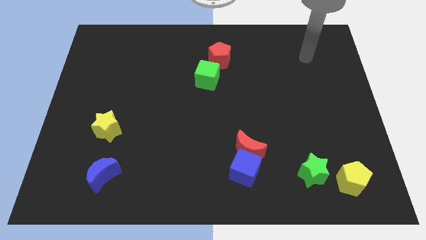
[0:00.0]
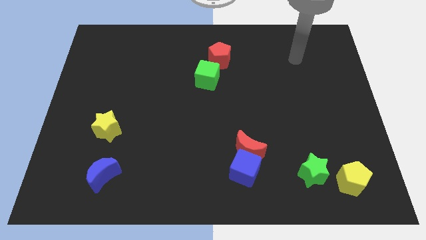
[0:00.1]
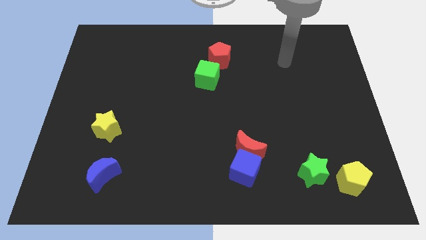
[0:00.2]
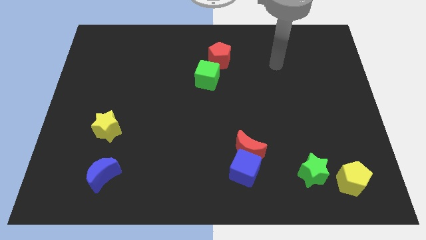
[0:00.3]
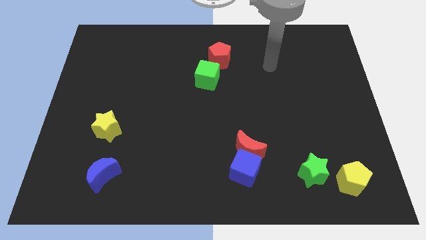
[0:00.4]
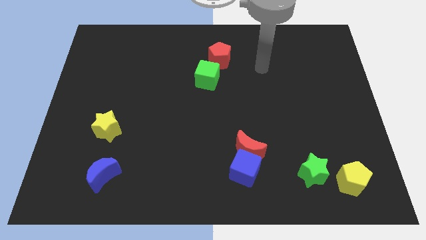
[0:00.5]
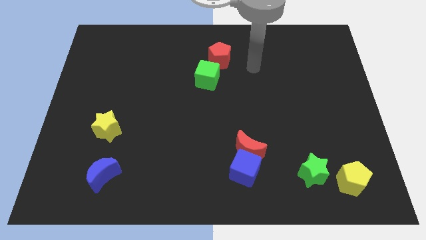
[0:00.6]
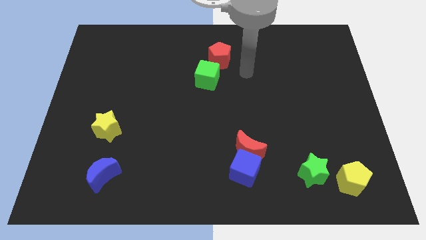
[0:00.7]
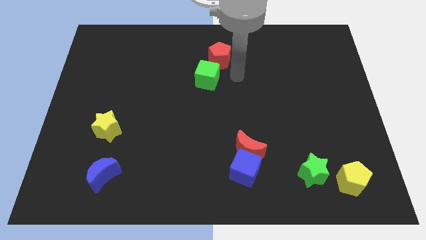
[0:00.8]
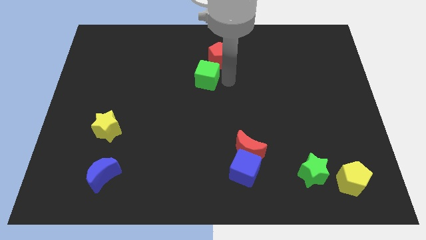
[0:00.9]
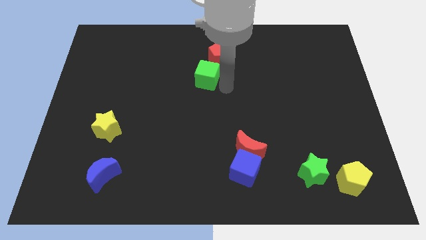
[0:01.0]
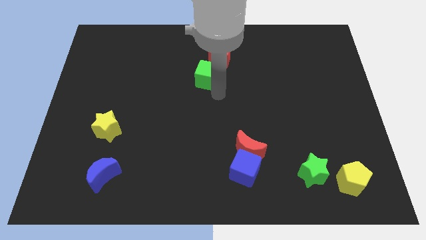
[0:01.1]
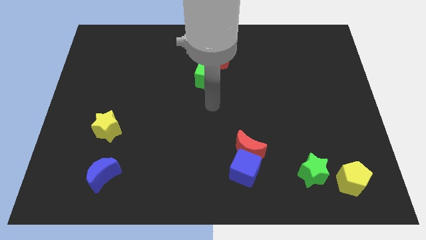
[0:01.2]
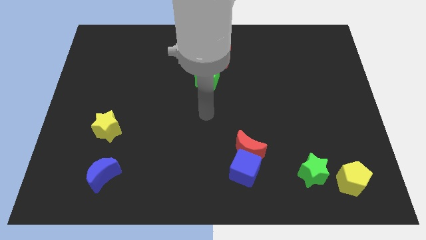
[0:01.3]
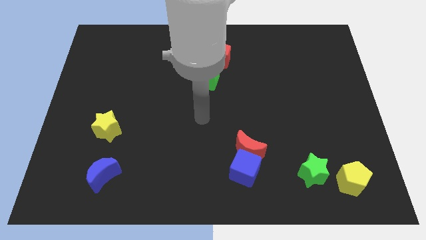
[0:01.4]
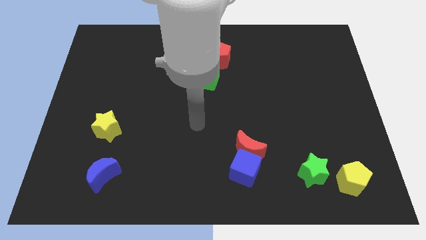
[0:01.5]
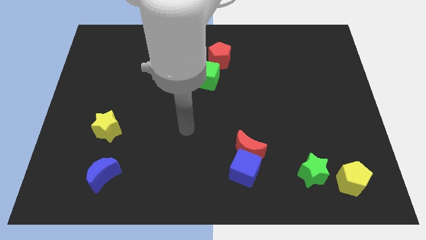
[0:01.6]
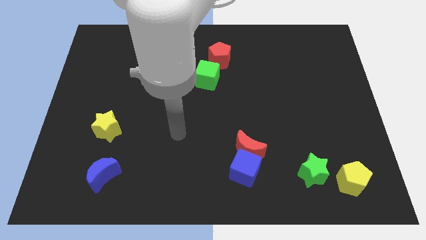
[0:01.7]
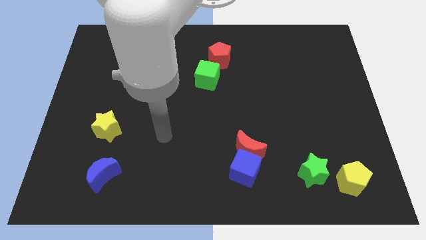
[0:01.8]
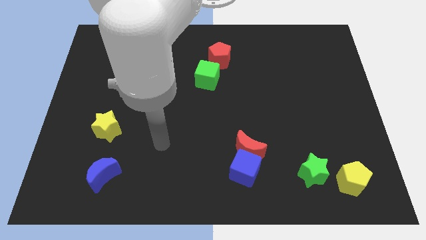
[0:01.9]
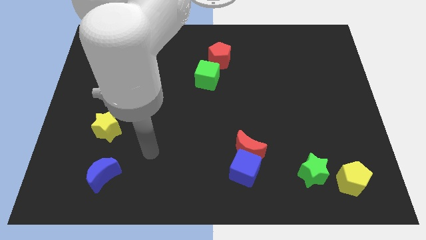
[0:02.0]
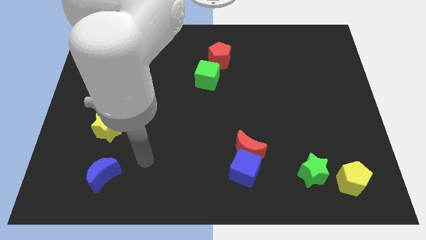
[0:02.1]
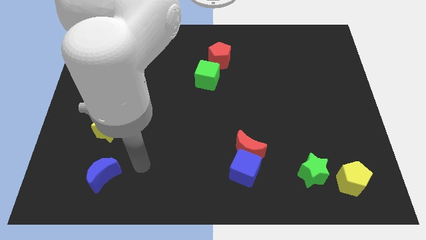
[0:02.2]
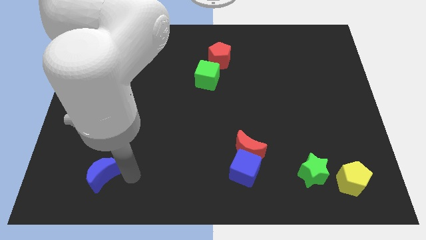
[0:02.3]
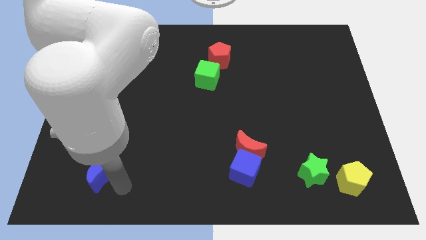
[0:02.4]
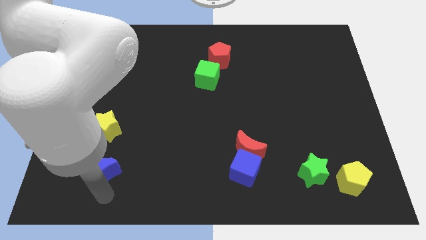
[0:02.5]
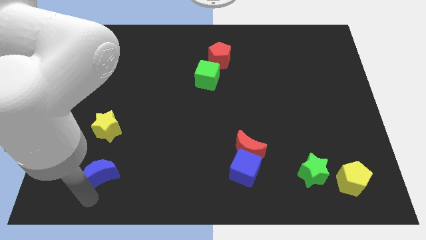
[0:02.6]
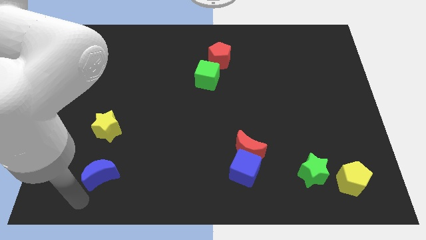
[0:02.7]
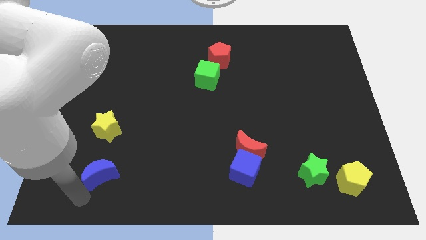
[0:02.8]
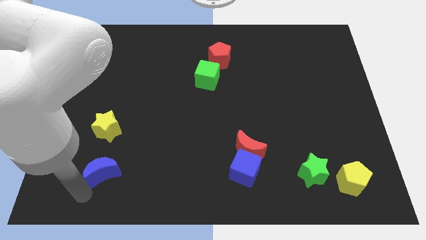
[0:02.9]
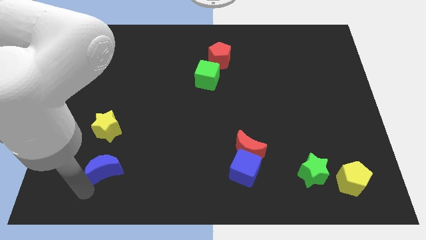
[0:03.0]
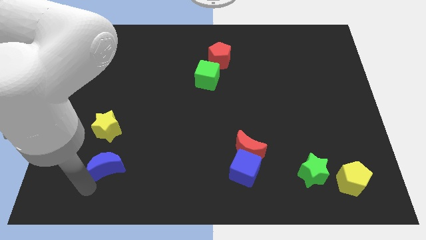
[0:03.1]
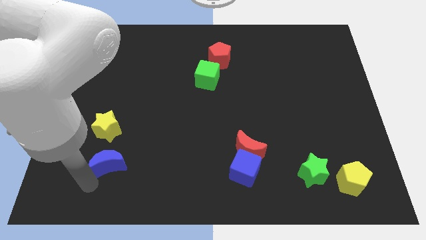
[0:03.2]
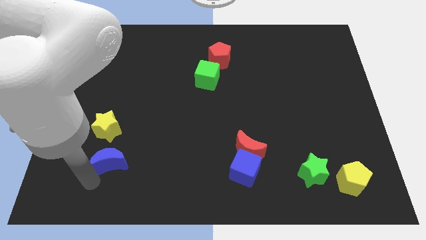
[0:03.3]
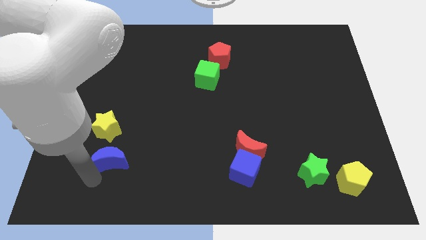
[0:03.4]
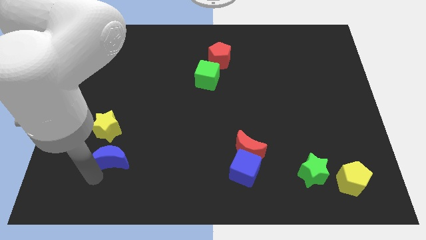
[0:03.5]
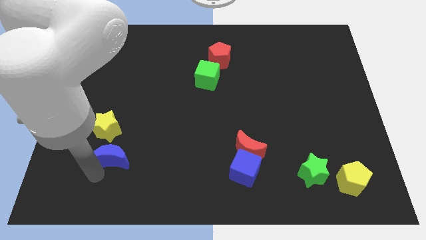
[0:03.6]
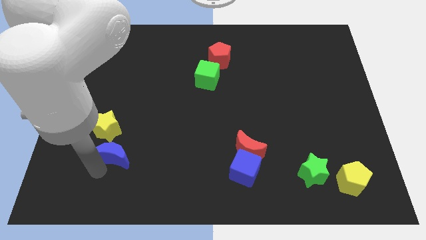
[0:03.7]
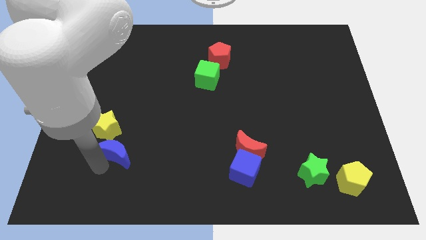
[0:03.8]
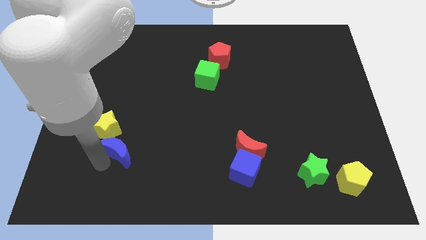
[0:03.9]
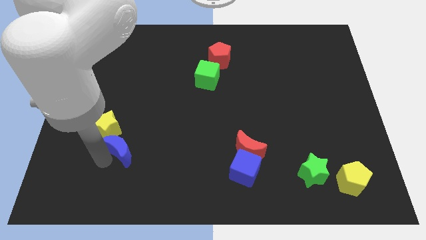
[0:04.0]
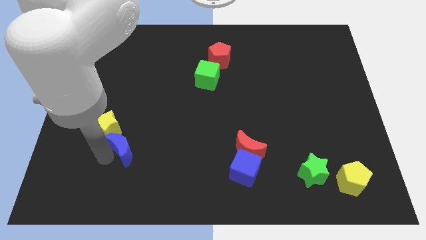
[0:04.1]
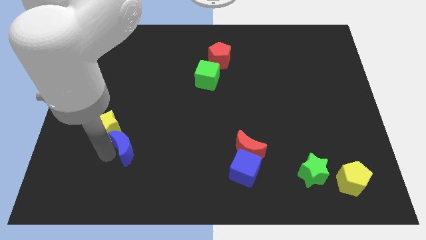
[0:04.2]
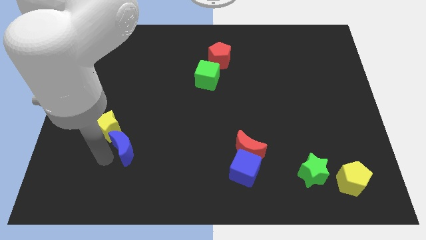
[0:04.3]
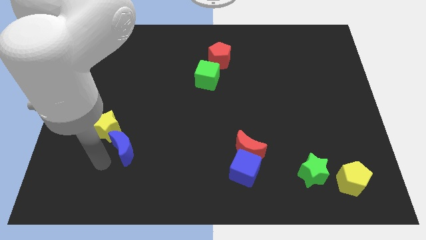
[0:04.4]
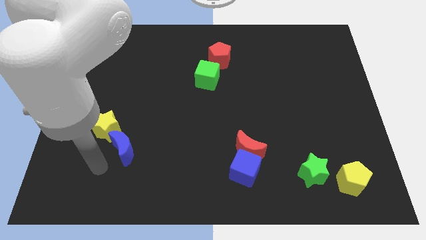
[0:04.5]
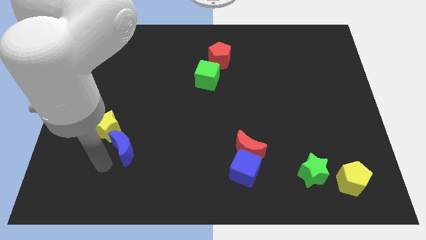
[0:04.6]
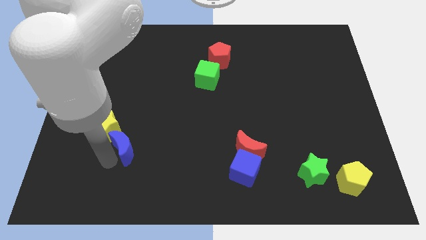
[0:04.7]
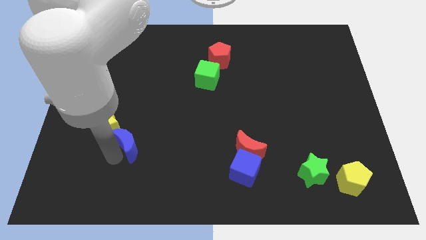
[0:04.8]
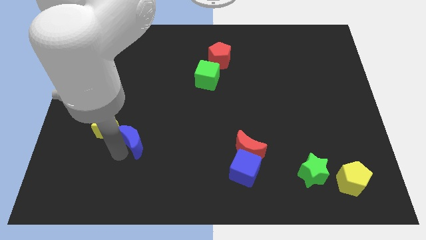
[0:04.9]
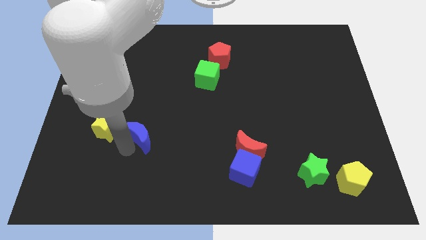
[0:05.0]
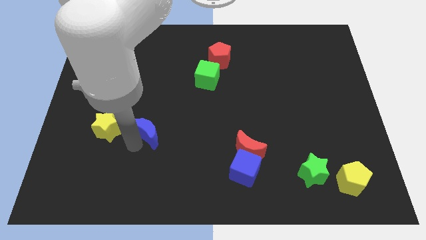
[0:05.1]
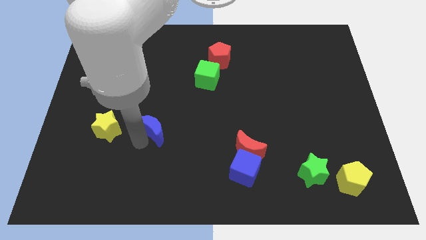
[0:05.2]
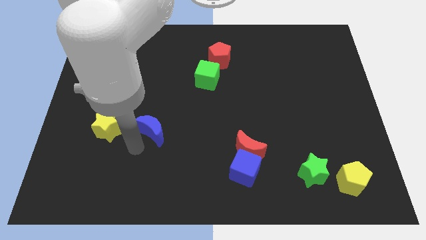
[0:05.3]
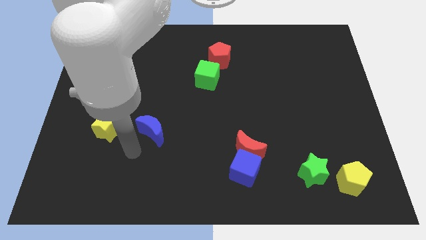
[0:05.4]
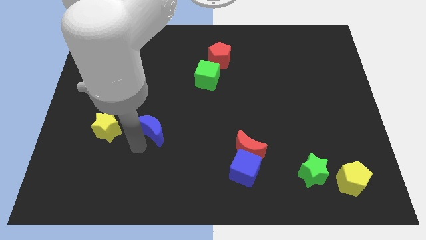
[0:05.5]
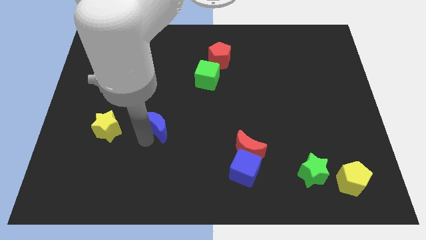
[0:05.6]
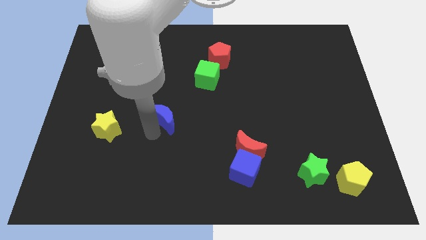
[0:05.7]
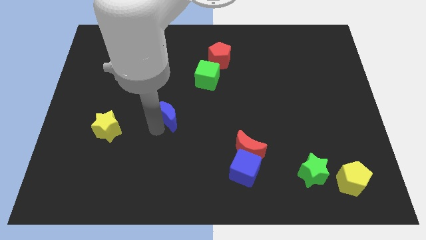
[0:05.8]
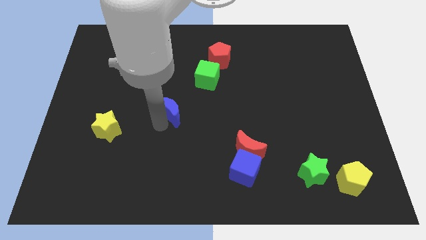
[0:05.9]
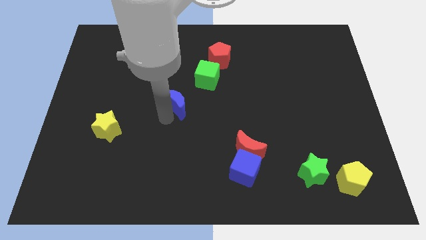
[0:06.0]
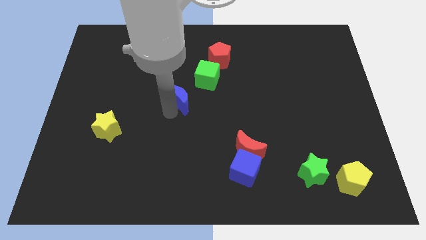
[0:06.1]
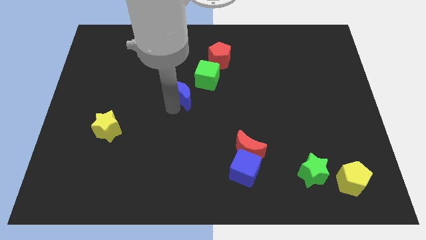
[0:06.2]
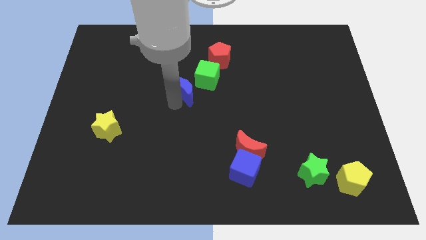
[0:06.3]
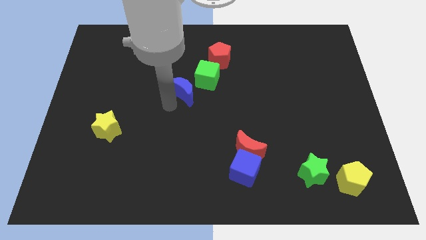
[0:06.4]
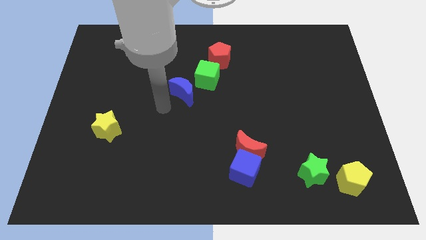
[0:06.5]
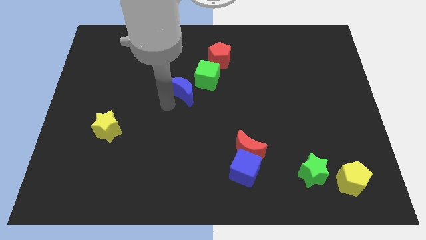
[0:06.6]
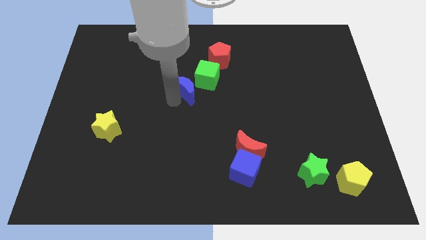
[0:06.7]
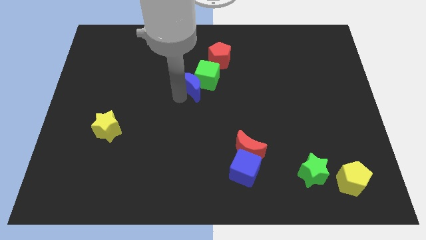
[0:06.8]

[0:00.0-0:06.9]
push the blue moon close to the green cube

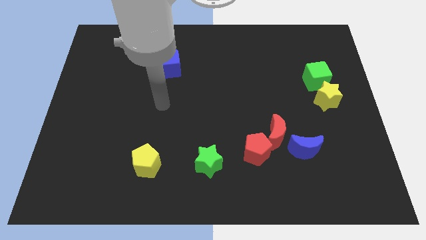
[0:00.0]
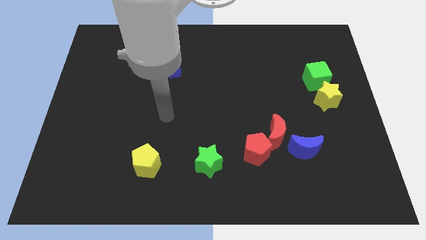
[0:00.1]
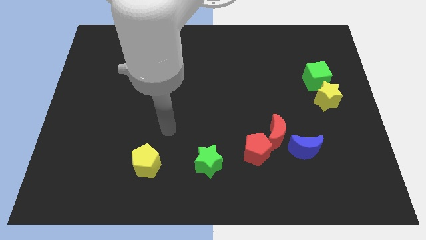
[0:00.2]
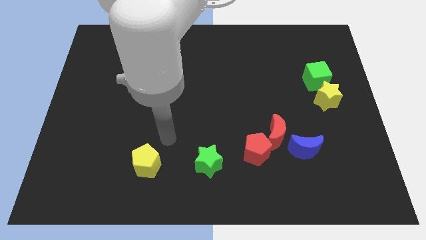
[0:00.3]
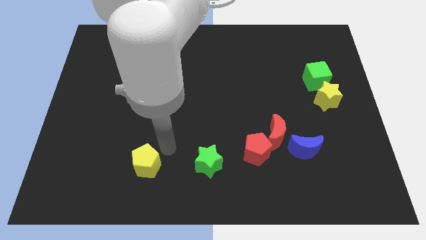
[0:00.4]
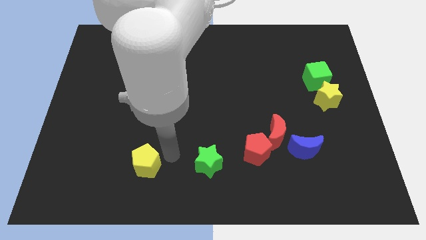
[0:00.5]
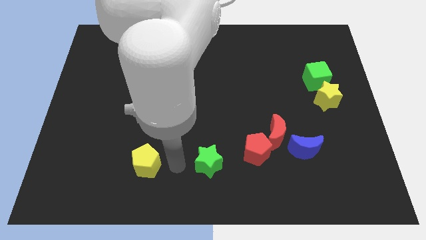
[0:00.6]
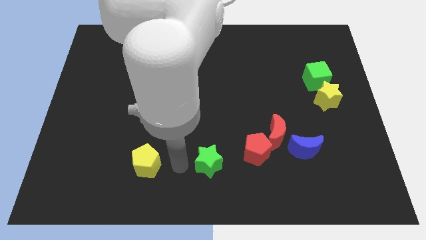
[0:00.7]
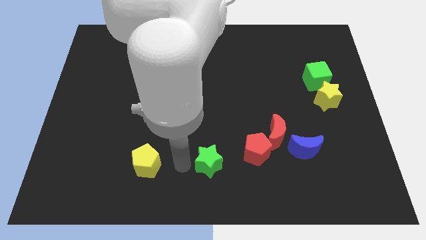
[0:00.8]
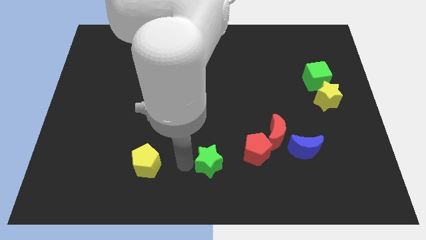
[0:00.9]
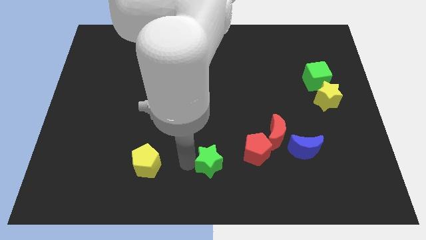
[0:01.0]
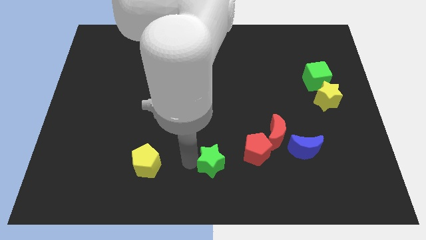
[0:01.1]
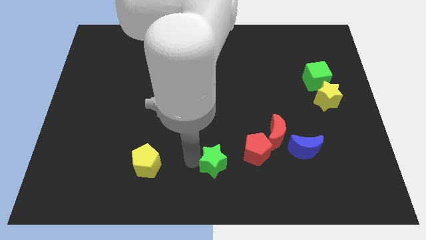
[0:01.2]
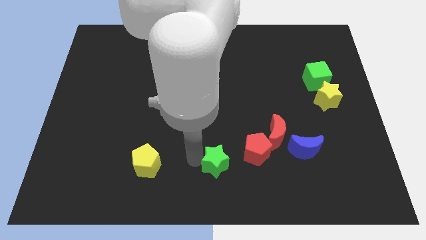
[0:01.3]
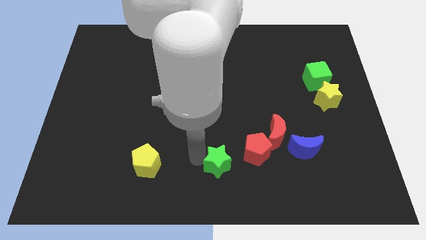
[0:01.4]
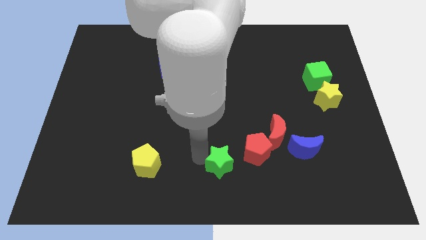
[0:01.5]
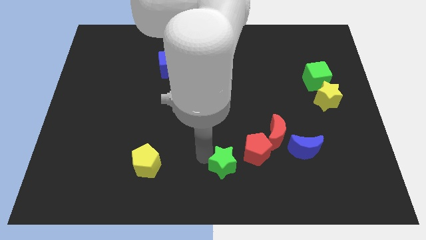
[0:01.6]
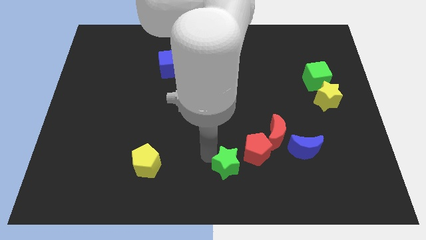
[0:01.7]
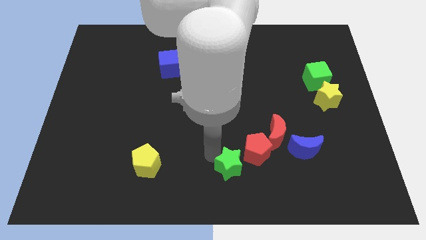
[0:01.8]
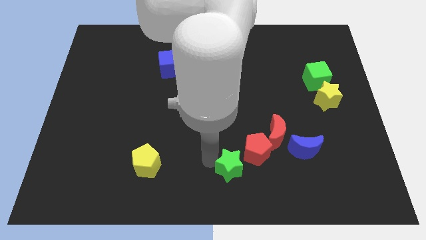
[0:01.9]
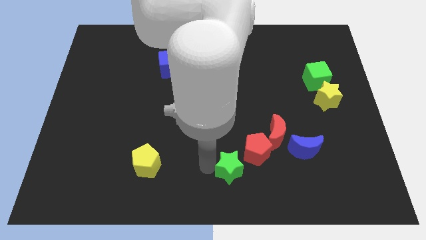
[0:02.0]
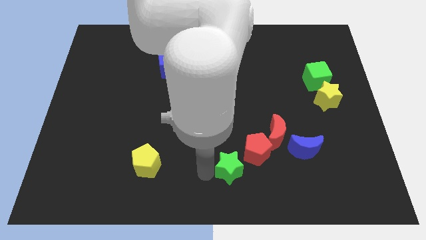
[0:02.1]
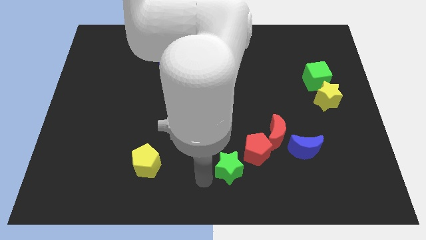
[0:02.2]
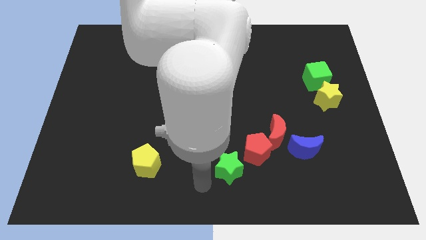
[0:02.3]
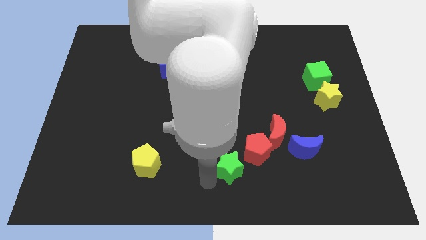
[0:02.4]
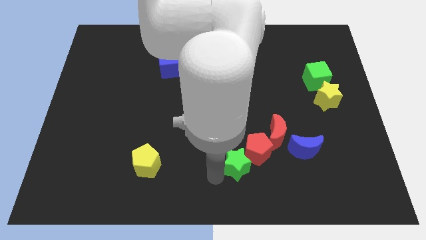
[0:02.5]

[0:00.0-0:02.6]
slide the green star close to the red pentagon
